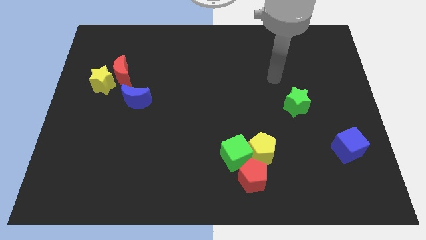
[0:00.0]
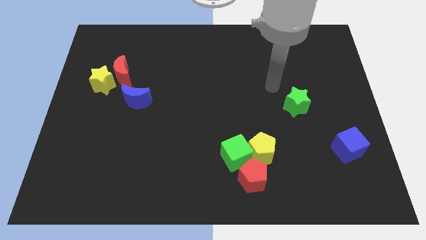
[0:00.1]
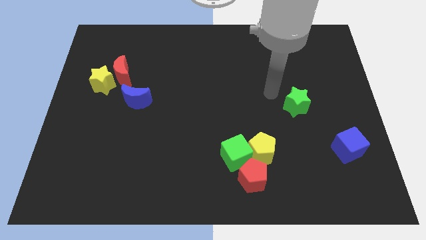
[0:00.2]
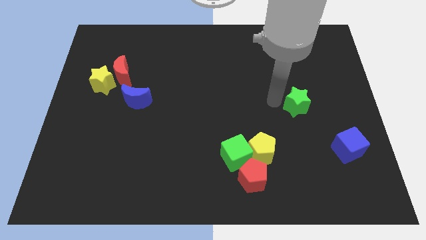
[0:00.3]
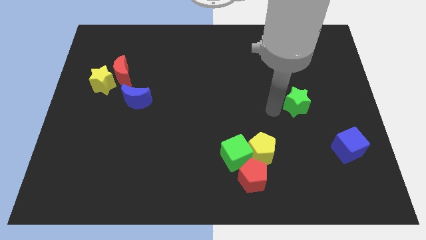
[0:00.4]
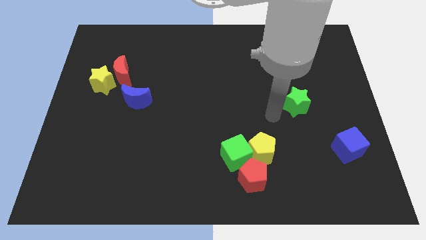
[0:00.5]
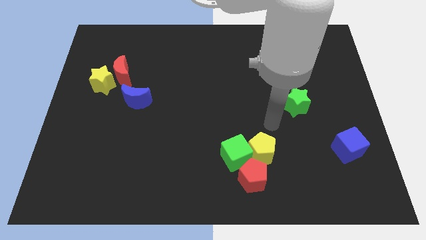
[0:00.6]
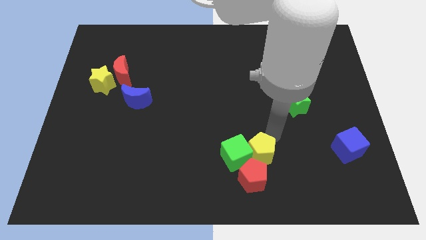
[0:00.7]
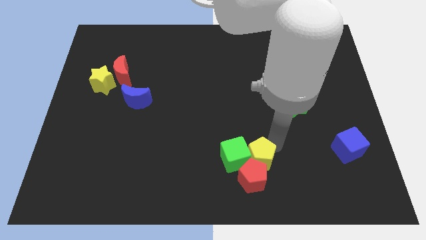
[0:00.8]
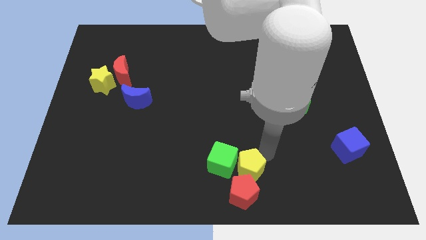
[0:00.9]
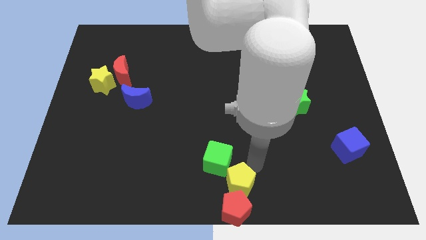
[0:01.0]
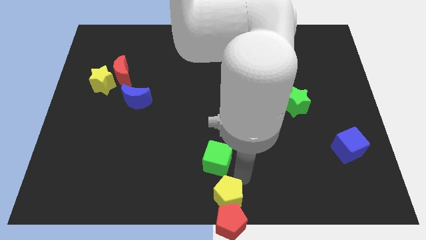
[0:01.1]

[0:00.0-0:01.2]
pull the green cube apart from the yellow pentagon and red pentagon

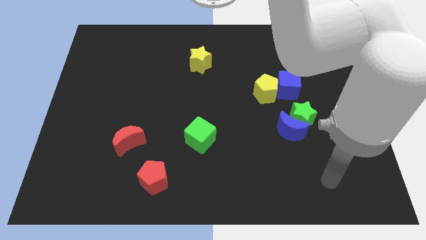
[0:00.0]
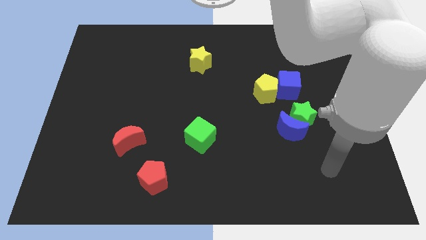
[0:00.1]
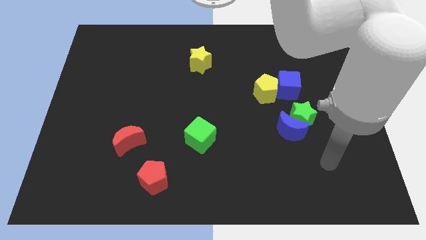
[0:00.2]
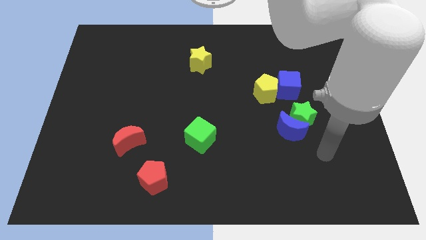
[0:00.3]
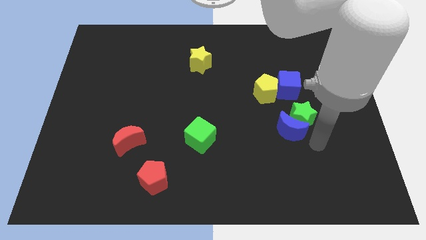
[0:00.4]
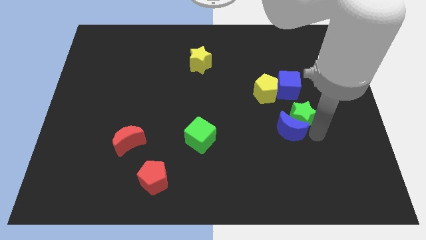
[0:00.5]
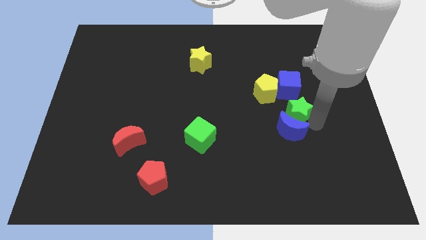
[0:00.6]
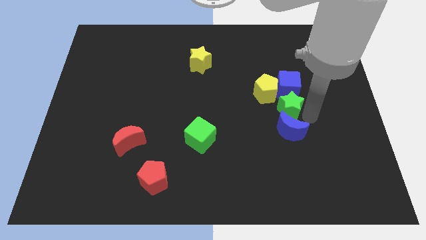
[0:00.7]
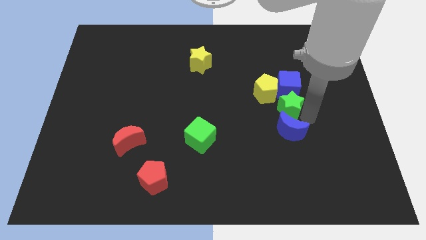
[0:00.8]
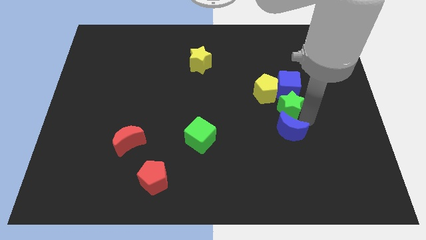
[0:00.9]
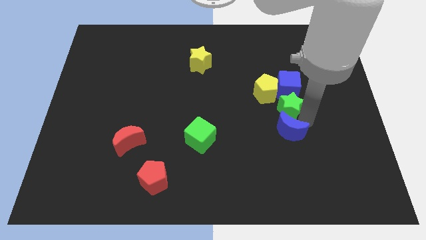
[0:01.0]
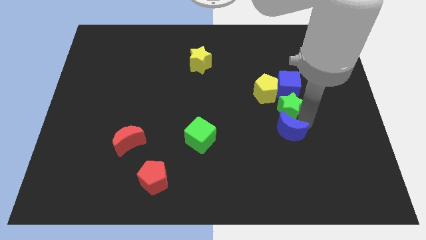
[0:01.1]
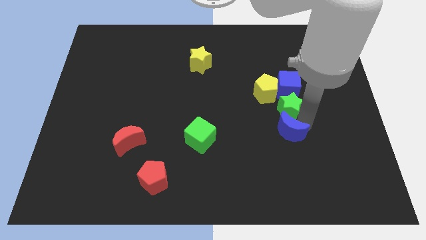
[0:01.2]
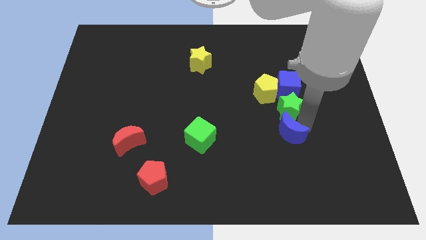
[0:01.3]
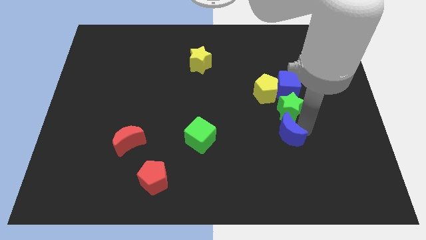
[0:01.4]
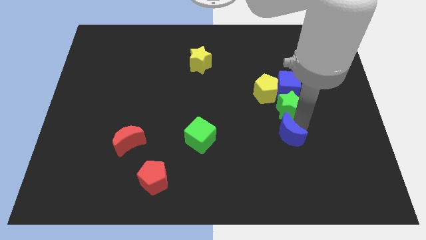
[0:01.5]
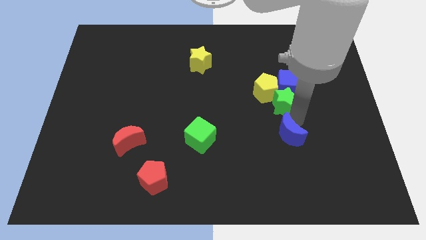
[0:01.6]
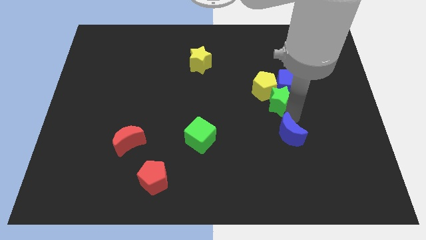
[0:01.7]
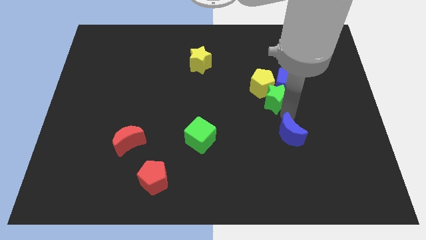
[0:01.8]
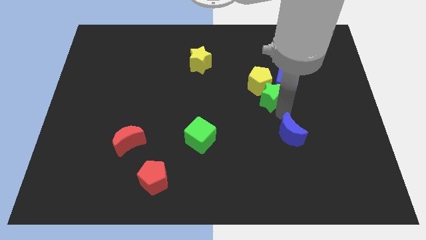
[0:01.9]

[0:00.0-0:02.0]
pull the blue moon apart from the green star

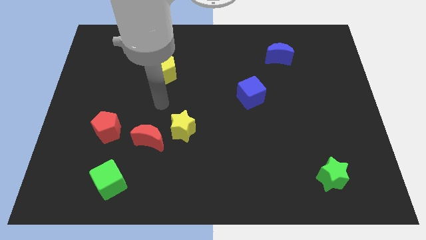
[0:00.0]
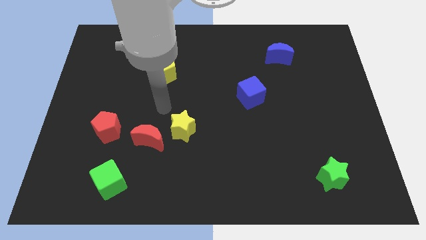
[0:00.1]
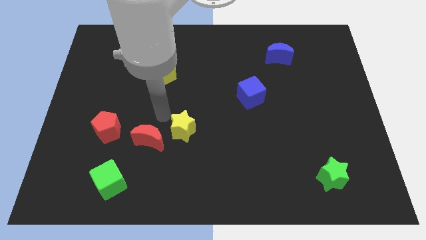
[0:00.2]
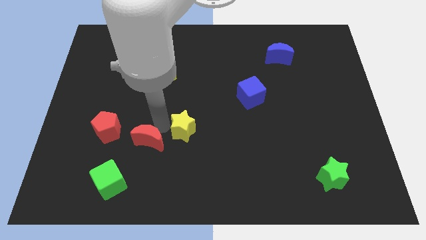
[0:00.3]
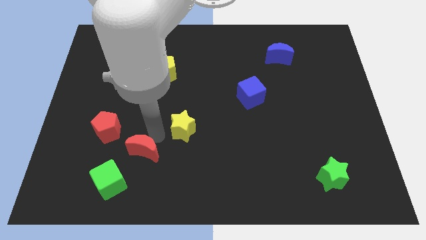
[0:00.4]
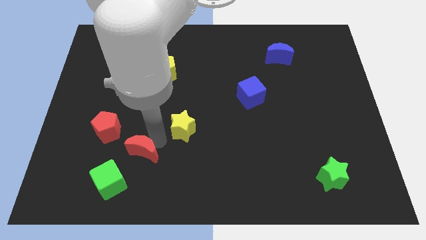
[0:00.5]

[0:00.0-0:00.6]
pull the yellow star apart from the red moon

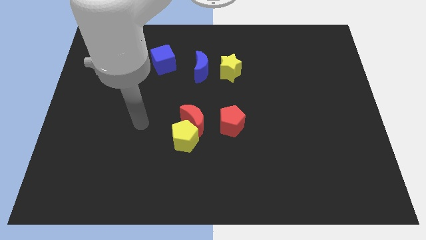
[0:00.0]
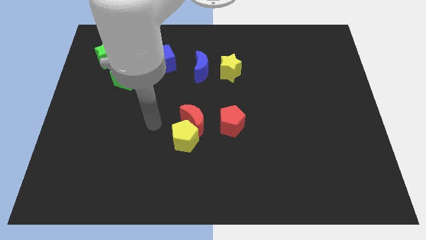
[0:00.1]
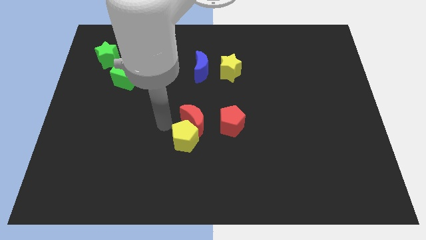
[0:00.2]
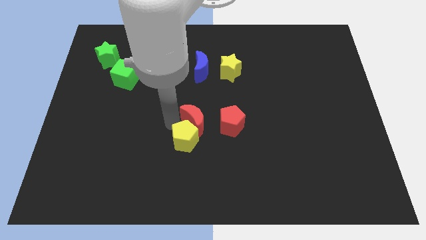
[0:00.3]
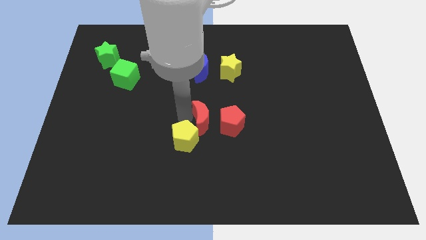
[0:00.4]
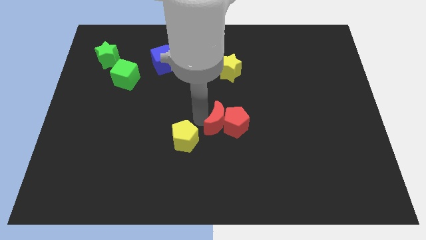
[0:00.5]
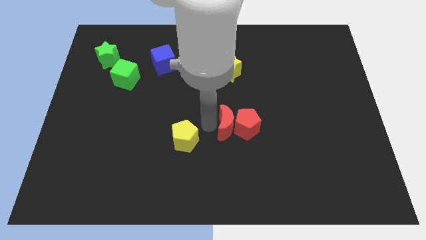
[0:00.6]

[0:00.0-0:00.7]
pull the yellow pentagon apart from the red moon

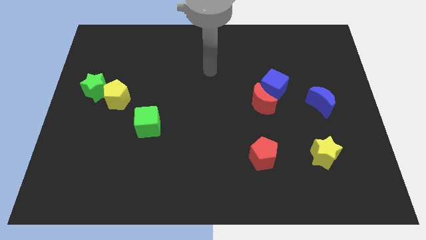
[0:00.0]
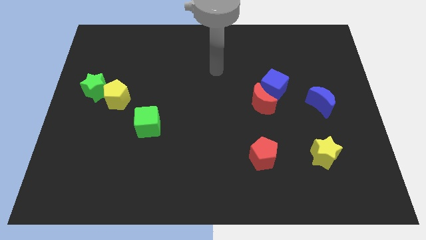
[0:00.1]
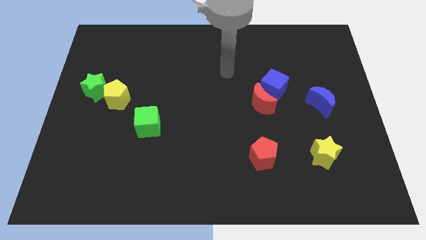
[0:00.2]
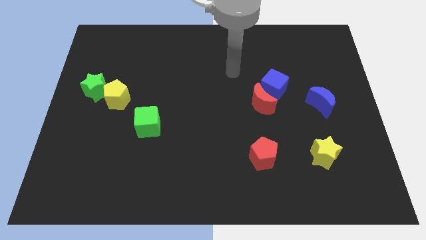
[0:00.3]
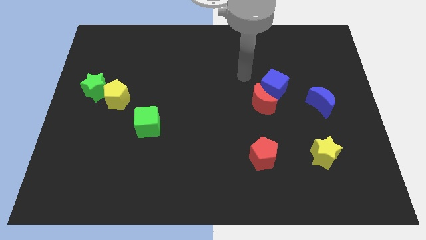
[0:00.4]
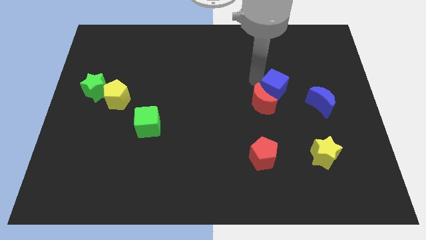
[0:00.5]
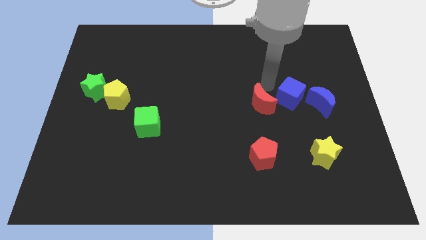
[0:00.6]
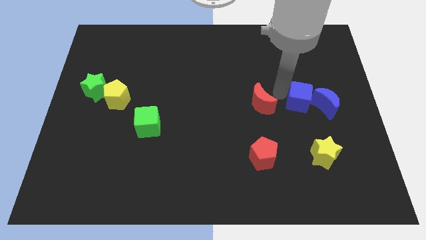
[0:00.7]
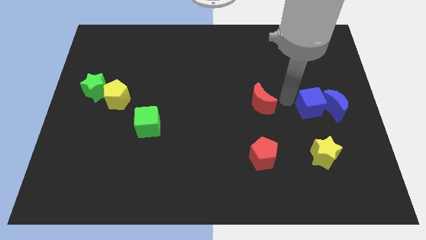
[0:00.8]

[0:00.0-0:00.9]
separate the red moon from the blue cube

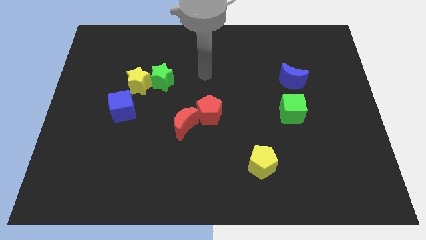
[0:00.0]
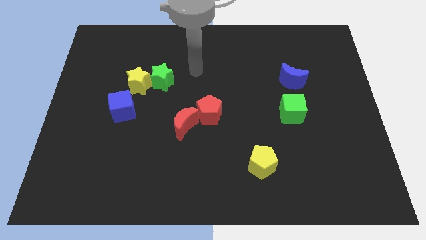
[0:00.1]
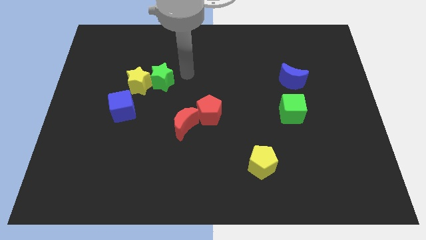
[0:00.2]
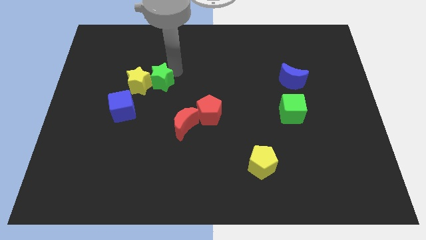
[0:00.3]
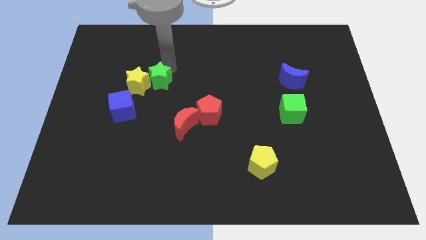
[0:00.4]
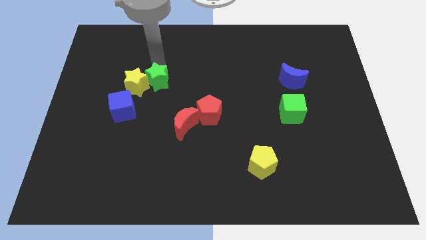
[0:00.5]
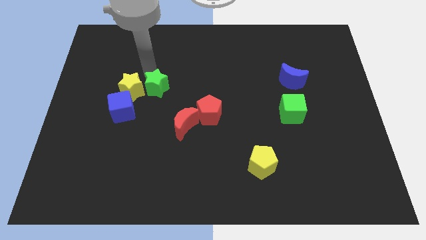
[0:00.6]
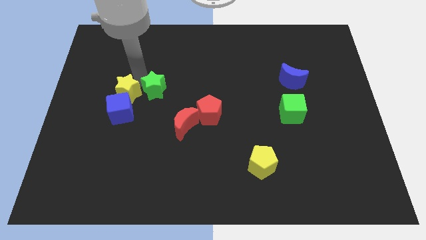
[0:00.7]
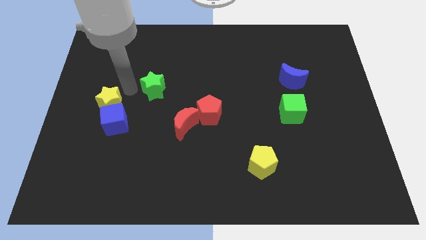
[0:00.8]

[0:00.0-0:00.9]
pull the green star apart from the yellow star

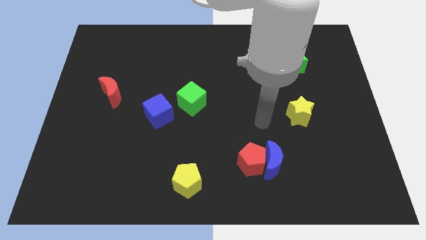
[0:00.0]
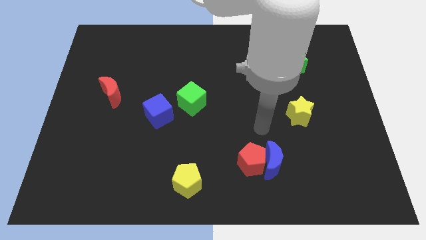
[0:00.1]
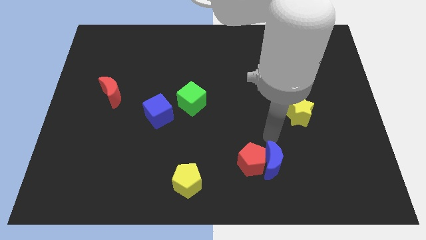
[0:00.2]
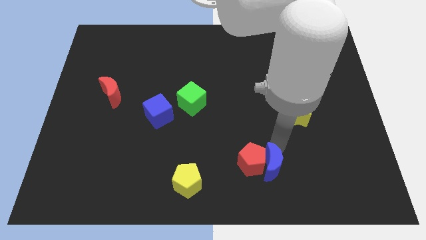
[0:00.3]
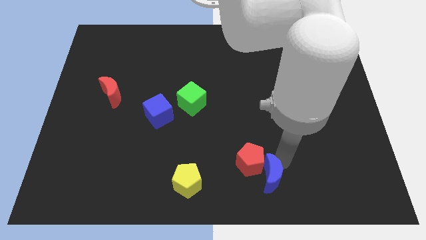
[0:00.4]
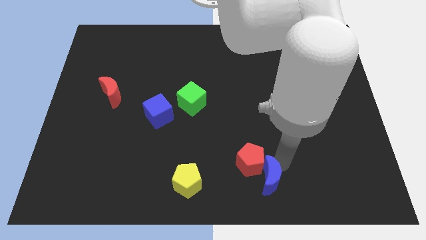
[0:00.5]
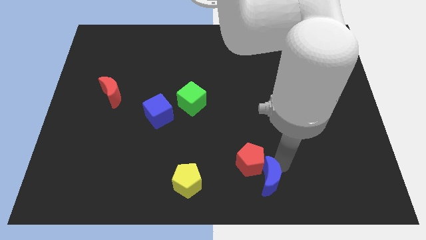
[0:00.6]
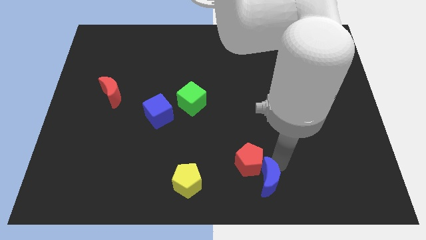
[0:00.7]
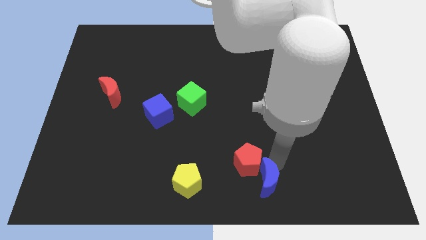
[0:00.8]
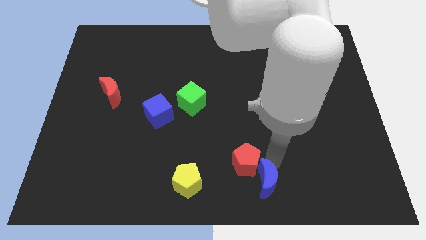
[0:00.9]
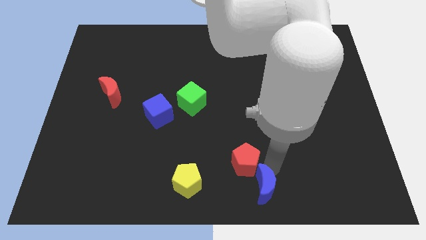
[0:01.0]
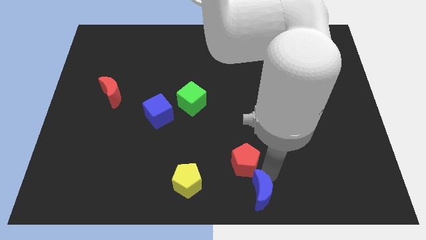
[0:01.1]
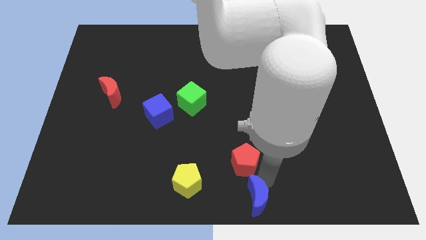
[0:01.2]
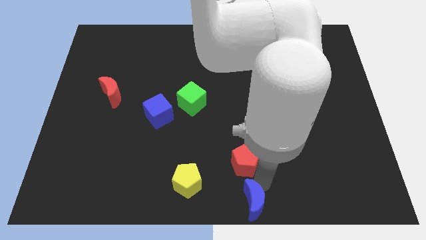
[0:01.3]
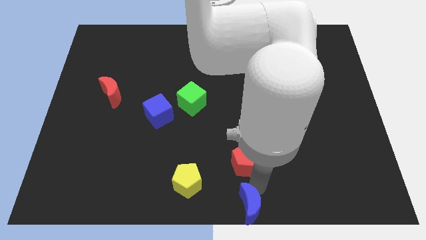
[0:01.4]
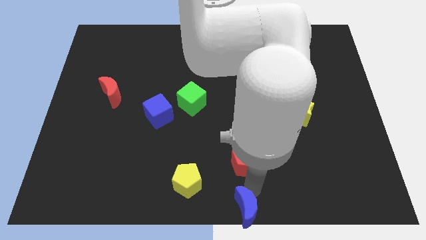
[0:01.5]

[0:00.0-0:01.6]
pull the red pentagon apart from the blue moon

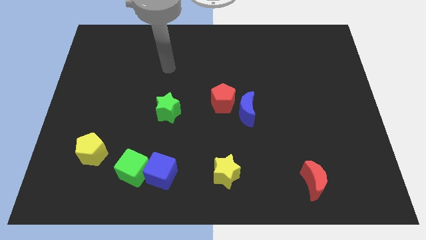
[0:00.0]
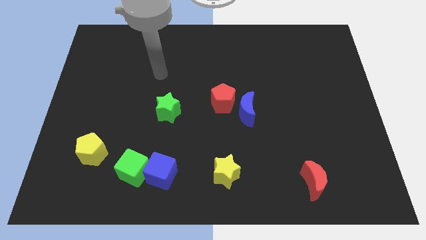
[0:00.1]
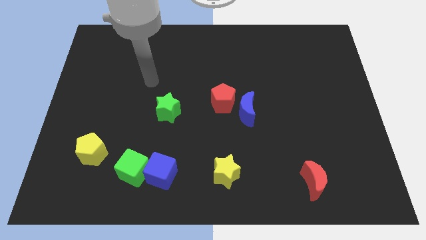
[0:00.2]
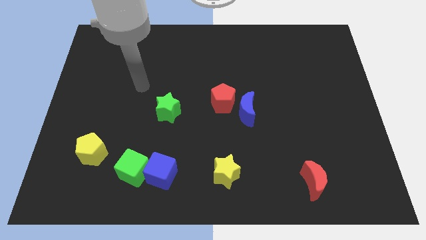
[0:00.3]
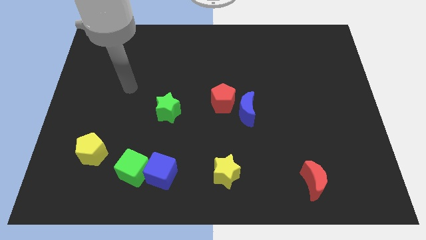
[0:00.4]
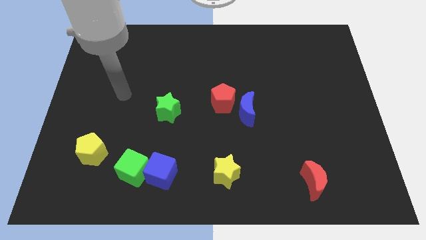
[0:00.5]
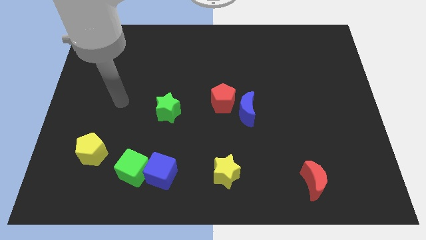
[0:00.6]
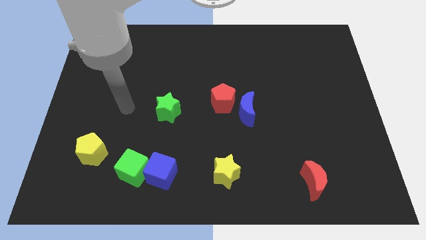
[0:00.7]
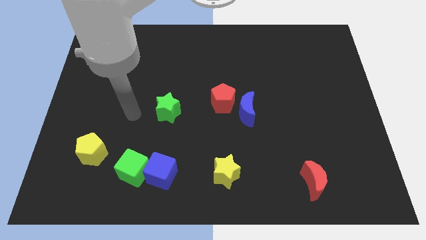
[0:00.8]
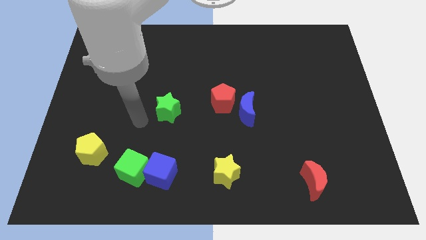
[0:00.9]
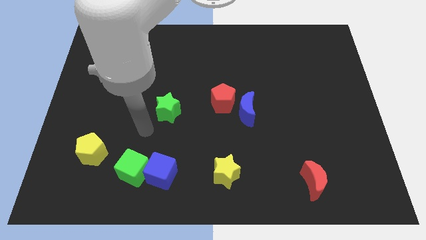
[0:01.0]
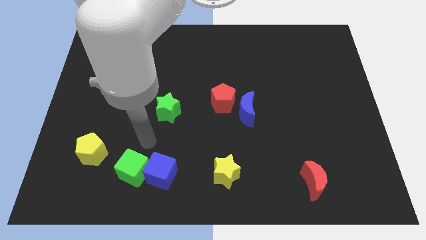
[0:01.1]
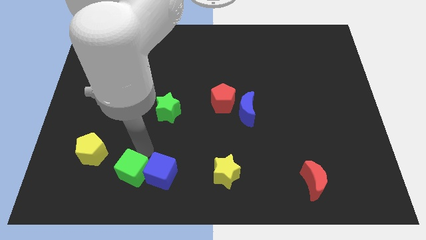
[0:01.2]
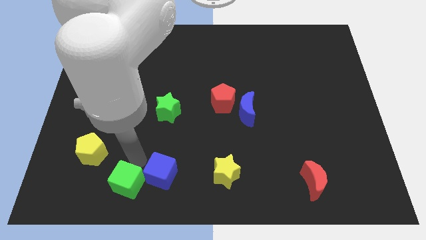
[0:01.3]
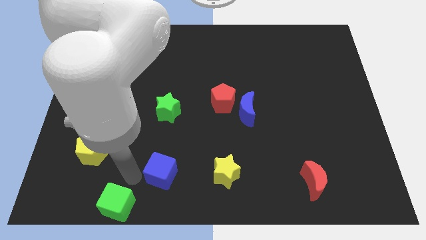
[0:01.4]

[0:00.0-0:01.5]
move the blue cube away from the green cube

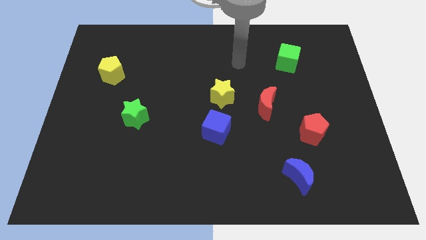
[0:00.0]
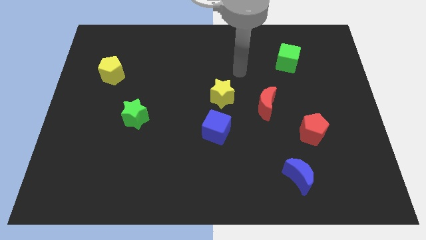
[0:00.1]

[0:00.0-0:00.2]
pull the blue cube apart from the yellow star
